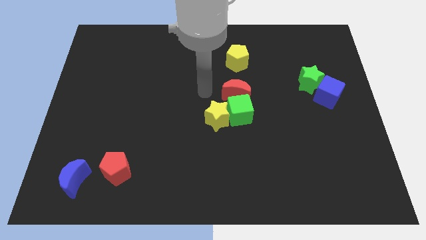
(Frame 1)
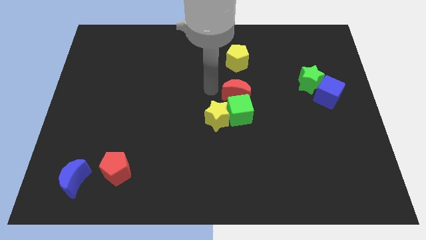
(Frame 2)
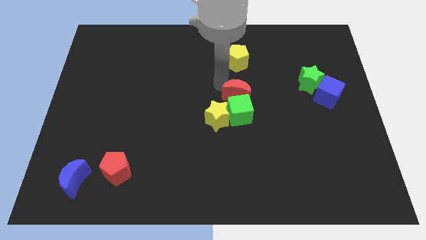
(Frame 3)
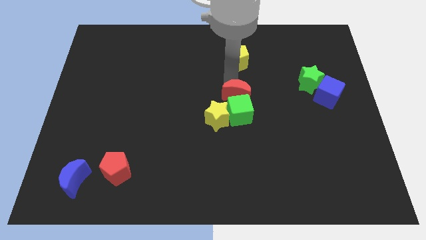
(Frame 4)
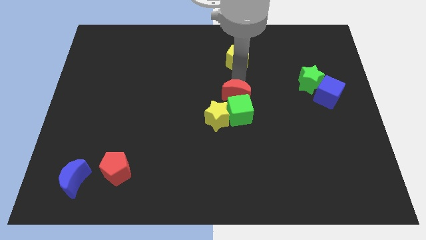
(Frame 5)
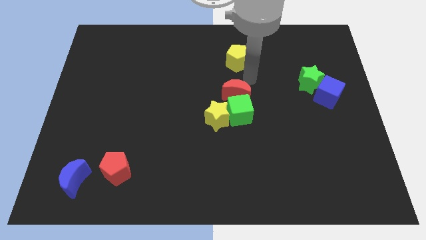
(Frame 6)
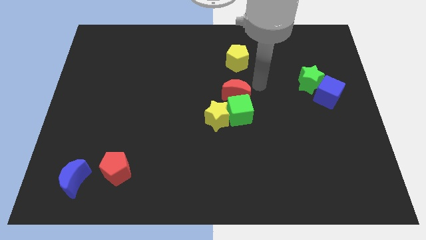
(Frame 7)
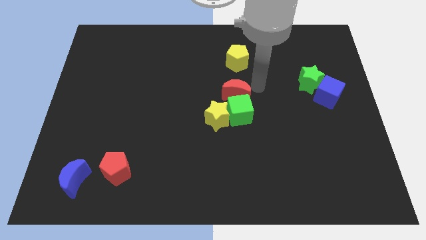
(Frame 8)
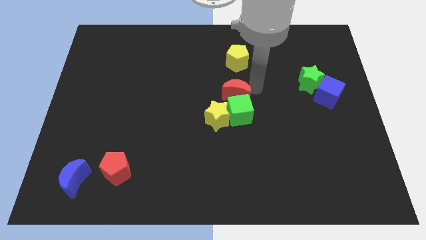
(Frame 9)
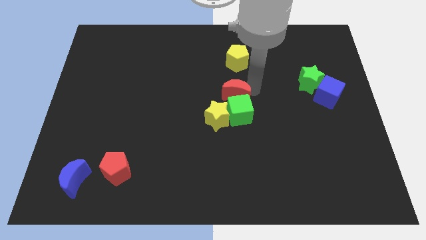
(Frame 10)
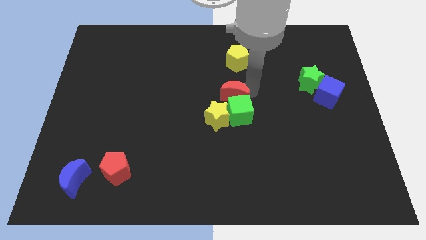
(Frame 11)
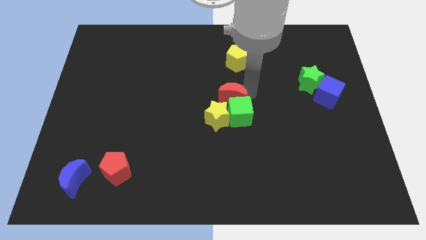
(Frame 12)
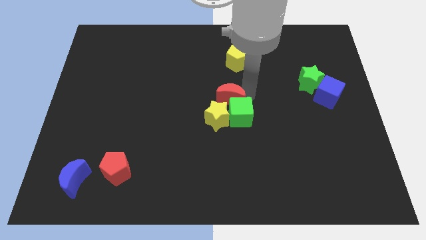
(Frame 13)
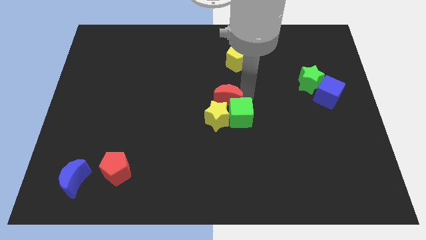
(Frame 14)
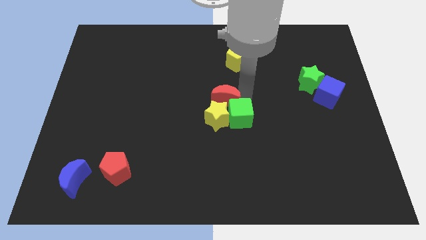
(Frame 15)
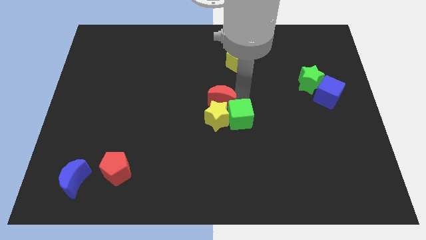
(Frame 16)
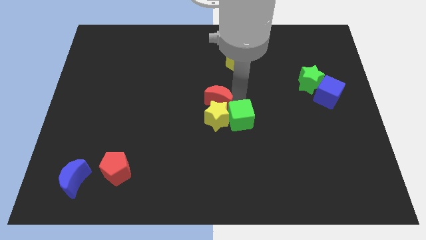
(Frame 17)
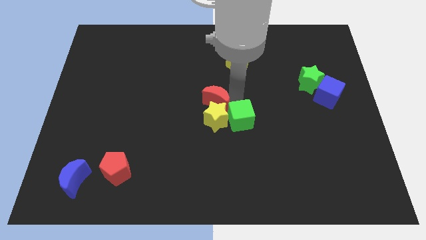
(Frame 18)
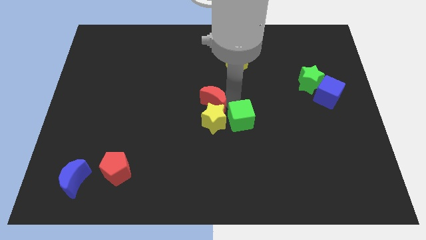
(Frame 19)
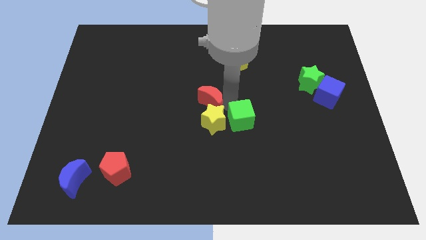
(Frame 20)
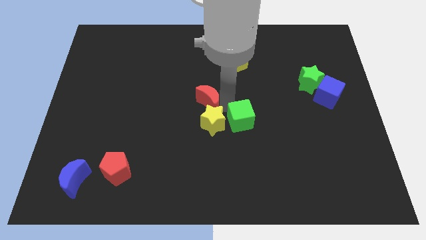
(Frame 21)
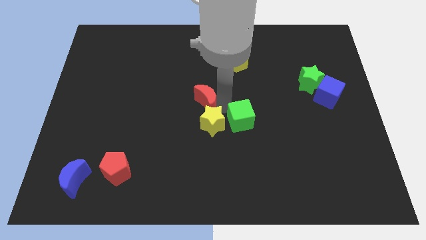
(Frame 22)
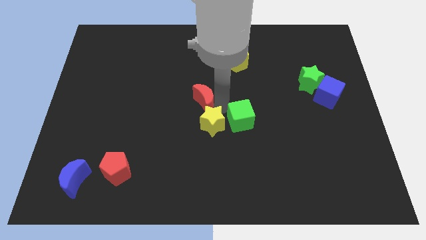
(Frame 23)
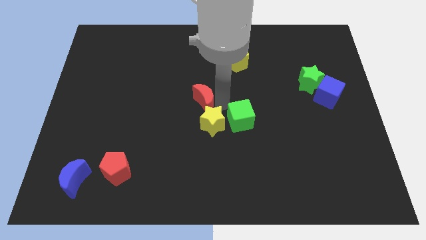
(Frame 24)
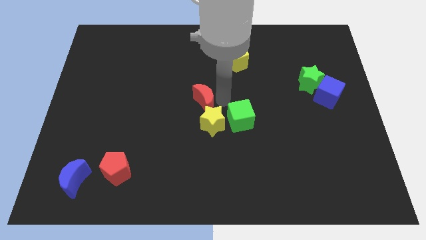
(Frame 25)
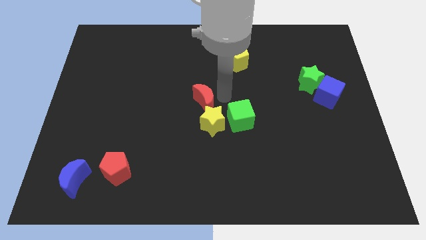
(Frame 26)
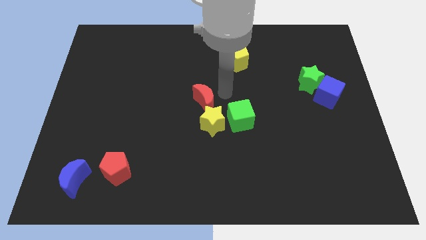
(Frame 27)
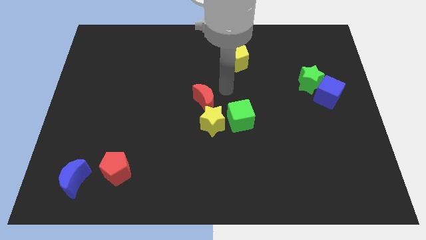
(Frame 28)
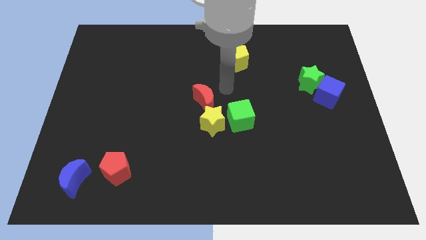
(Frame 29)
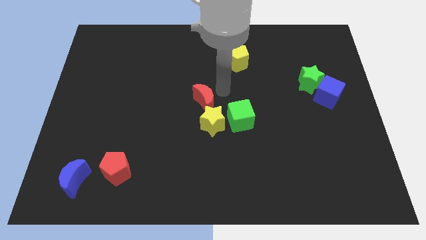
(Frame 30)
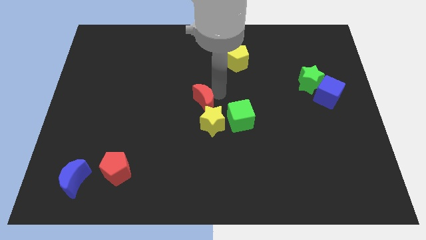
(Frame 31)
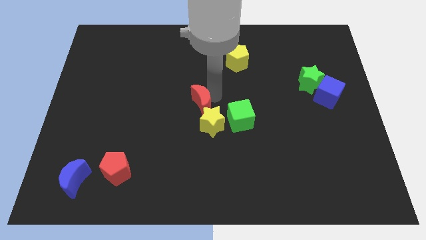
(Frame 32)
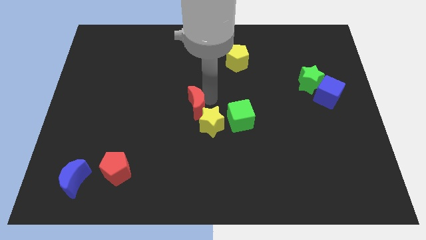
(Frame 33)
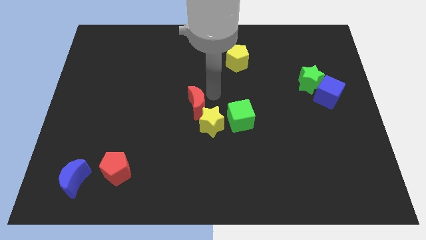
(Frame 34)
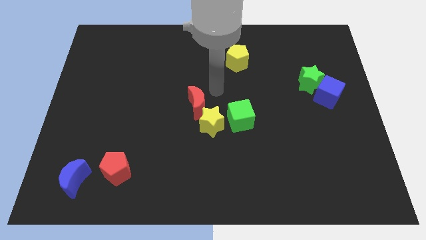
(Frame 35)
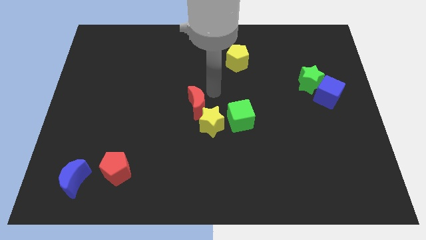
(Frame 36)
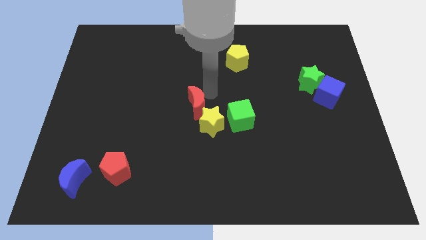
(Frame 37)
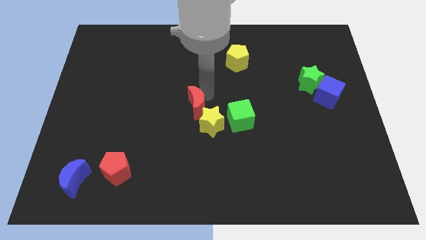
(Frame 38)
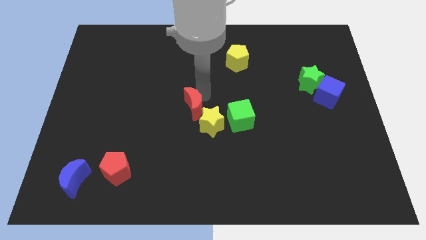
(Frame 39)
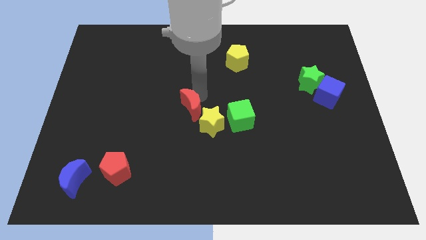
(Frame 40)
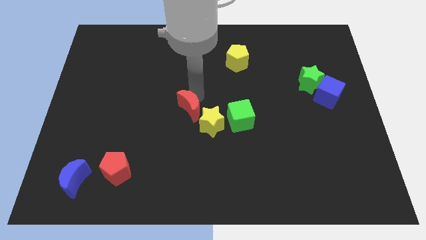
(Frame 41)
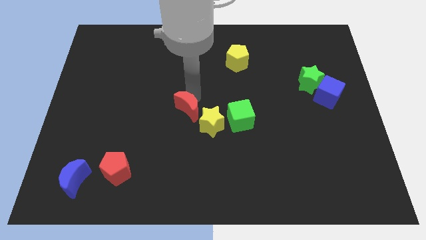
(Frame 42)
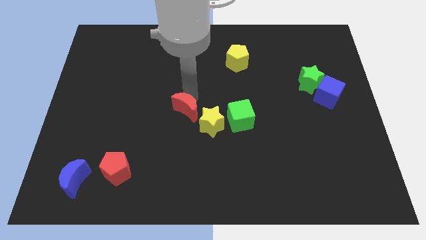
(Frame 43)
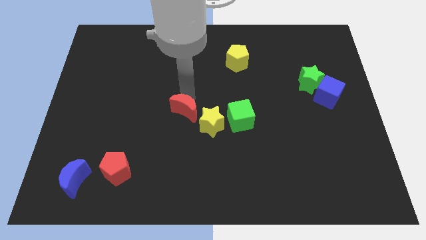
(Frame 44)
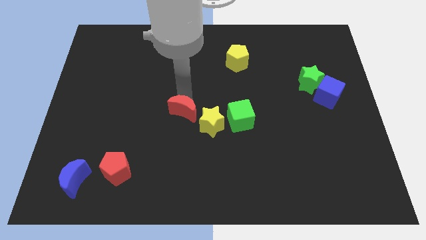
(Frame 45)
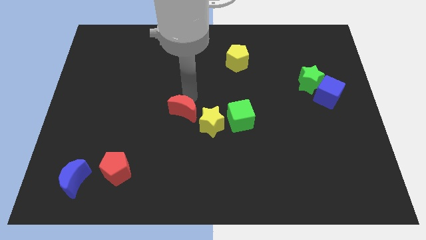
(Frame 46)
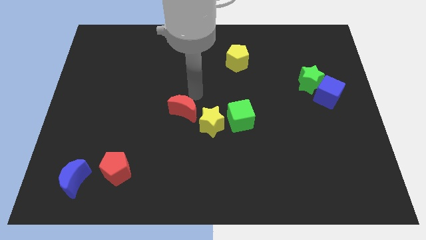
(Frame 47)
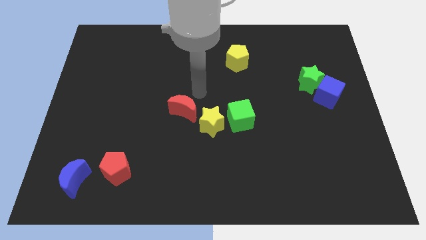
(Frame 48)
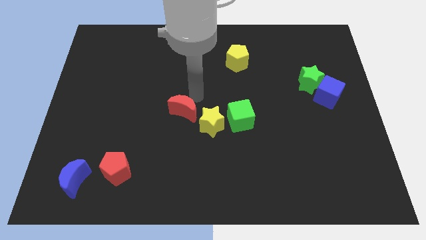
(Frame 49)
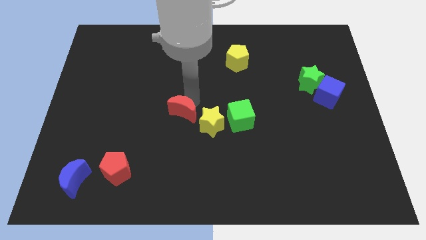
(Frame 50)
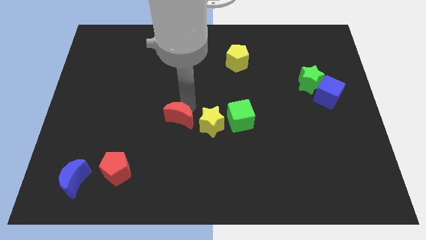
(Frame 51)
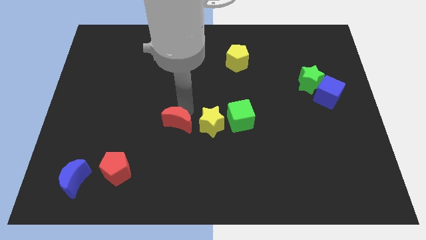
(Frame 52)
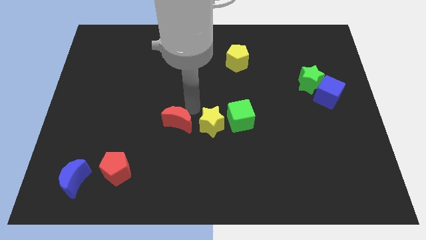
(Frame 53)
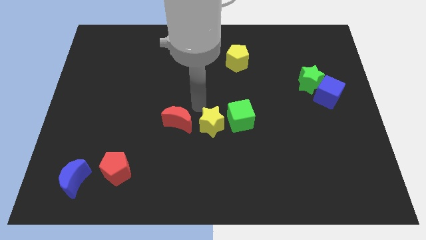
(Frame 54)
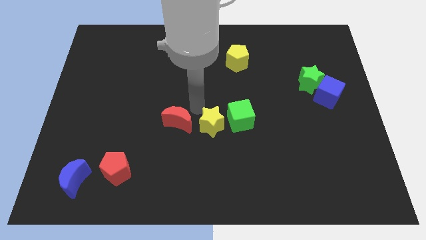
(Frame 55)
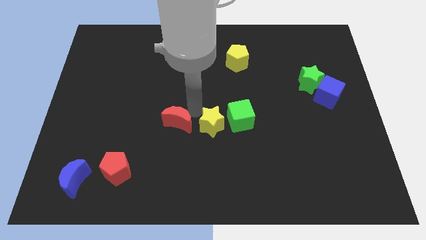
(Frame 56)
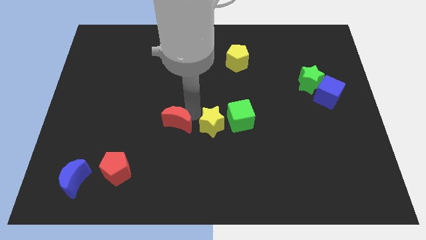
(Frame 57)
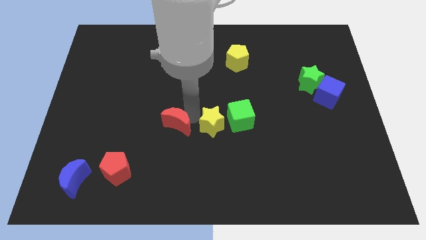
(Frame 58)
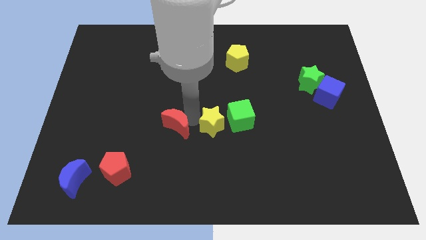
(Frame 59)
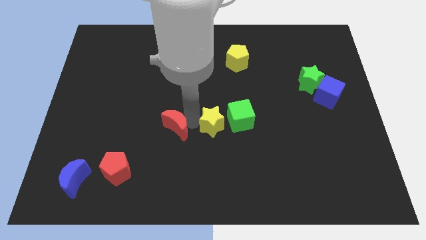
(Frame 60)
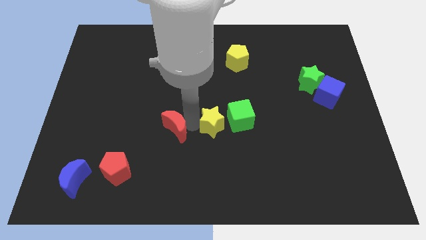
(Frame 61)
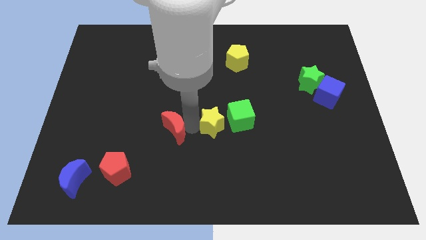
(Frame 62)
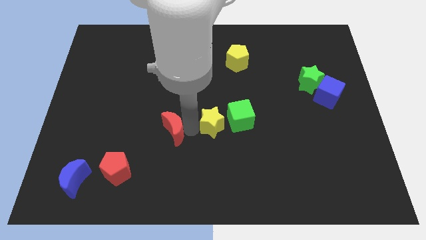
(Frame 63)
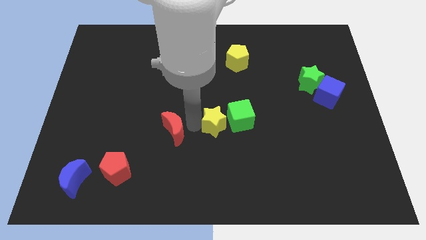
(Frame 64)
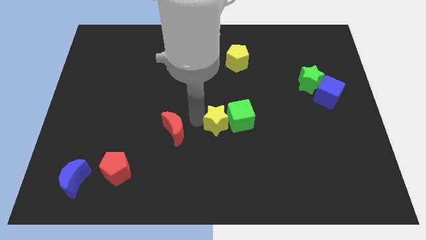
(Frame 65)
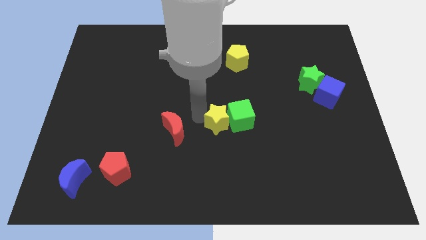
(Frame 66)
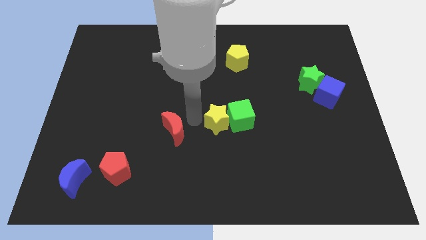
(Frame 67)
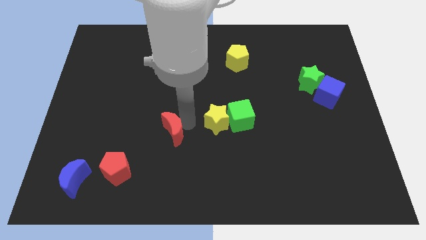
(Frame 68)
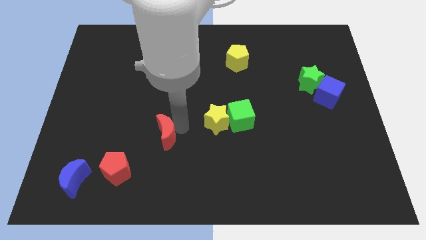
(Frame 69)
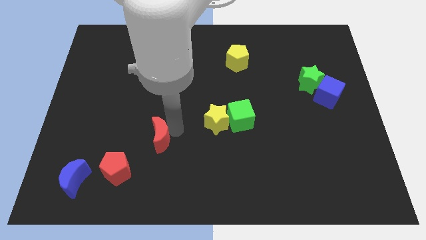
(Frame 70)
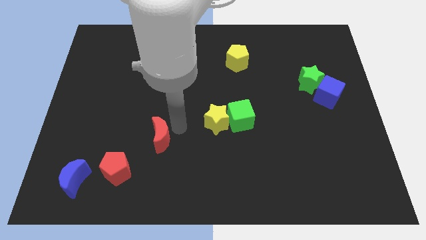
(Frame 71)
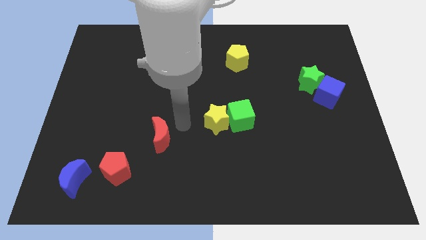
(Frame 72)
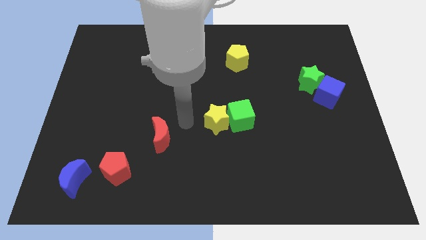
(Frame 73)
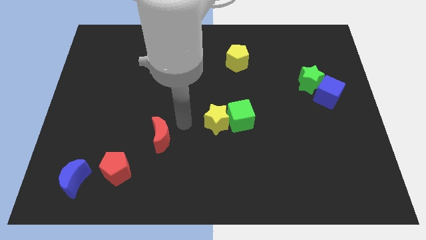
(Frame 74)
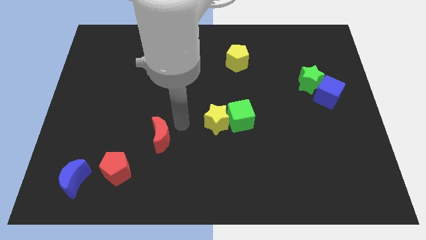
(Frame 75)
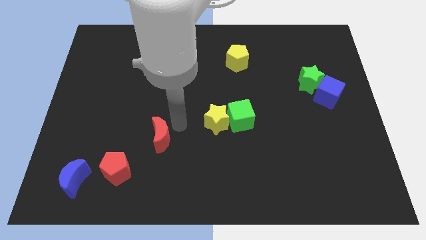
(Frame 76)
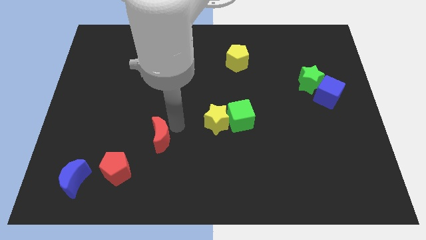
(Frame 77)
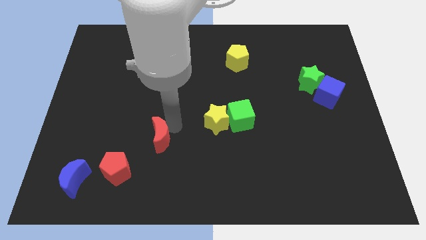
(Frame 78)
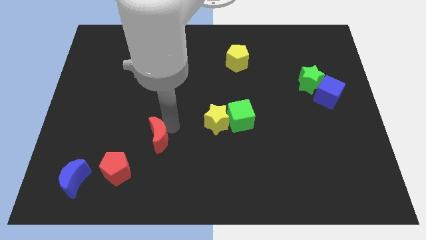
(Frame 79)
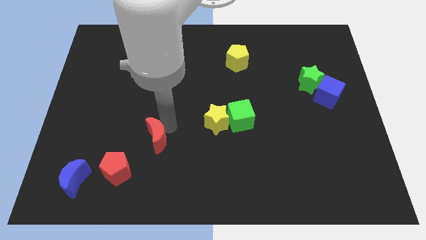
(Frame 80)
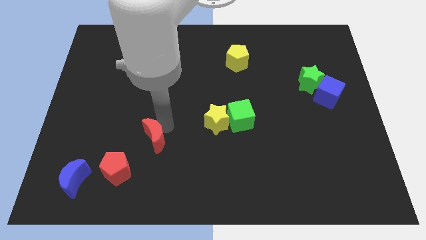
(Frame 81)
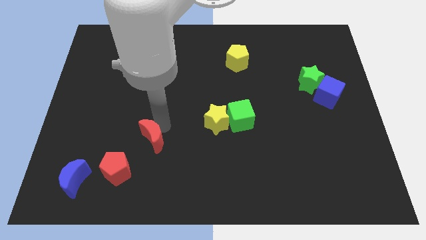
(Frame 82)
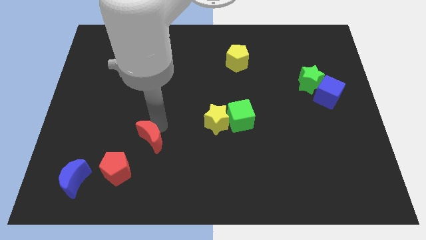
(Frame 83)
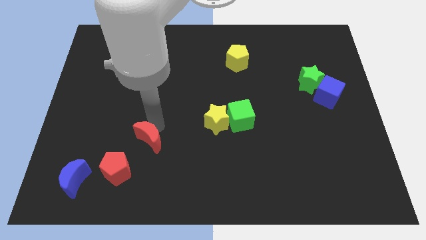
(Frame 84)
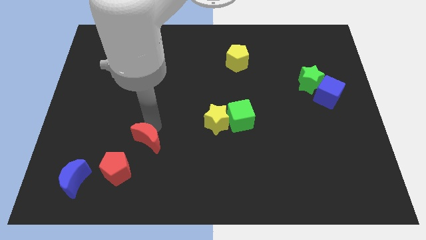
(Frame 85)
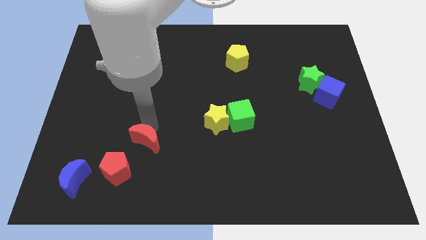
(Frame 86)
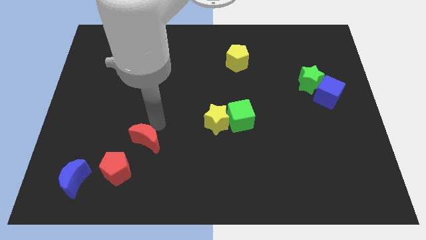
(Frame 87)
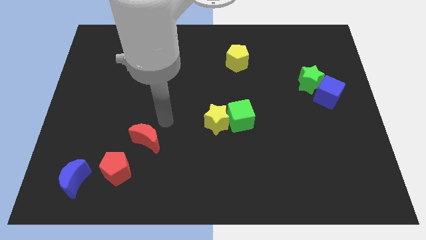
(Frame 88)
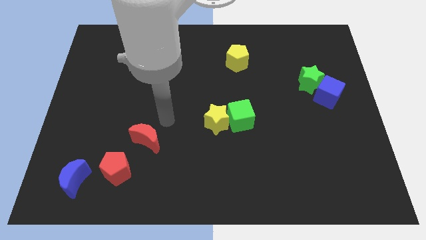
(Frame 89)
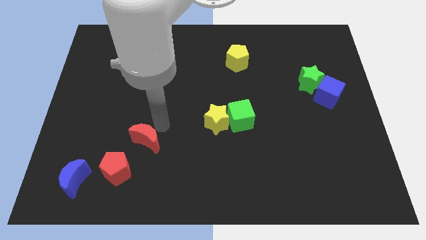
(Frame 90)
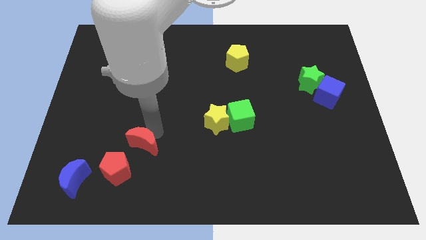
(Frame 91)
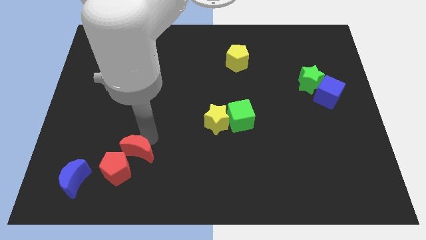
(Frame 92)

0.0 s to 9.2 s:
put the red moon next to the red pentagon
